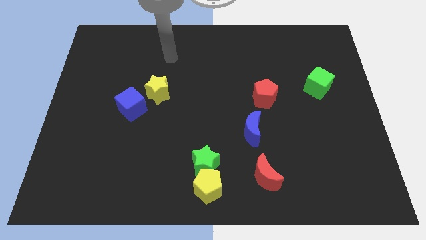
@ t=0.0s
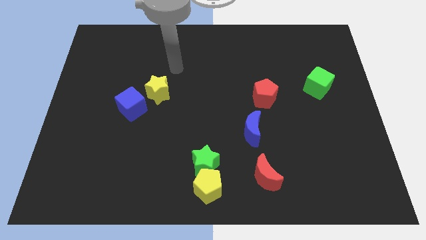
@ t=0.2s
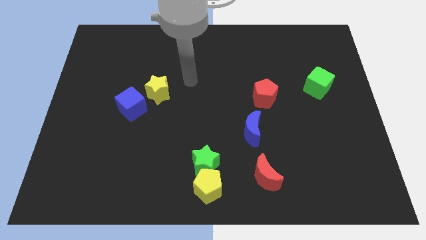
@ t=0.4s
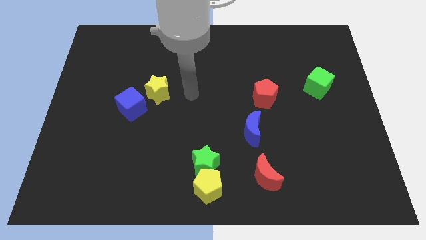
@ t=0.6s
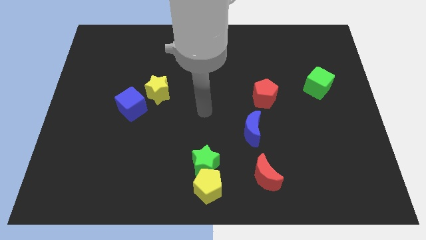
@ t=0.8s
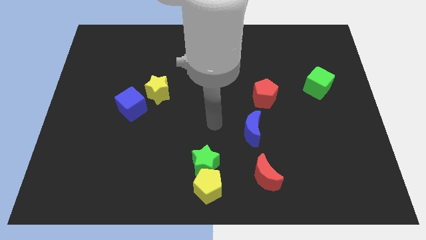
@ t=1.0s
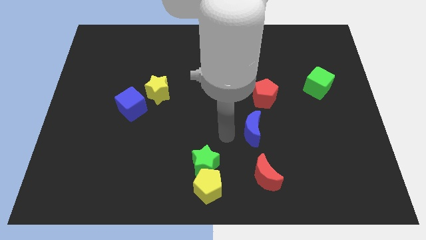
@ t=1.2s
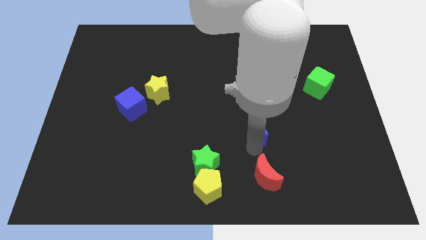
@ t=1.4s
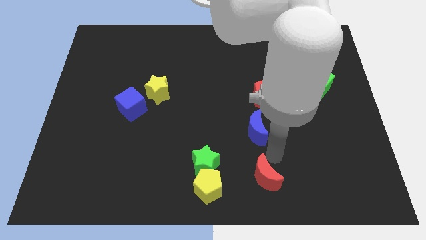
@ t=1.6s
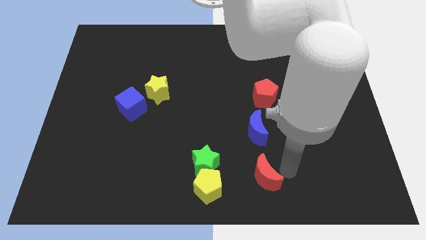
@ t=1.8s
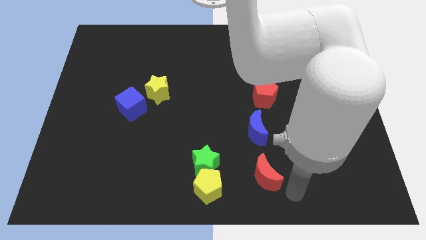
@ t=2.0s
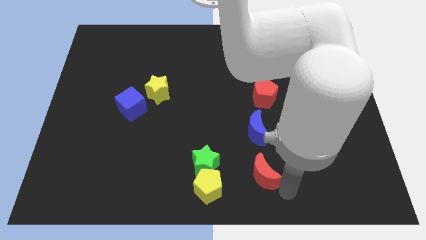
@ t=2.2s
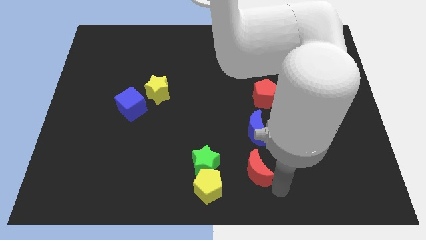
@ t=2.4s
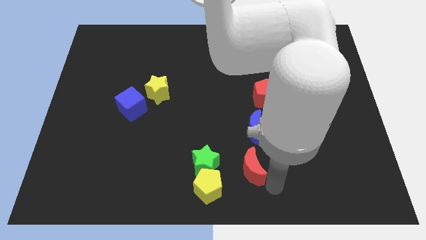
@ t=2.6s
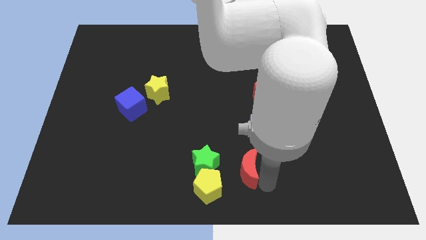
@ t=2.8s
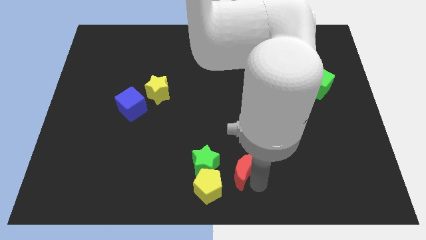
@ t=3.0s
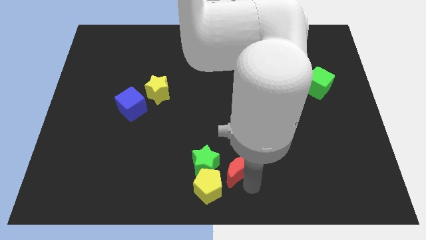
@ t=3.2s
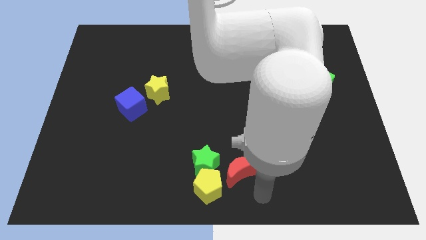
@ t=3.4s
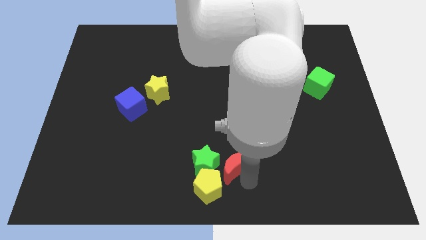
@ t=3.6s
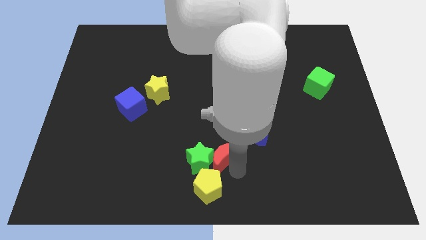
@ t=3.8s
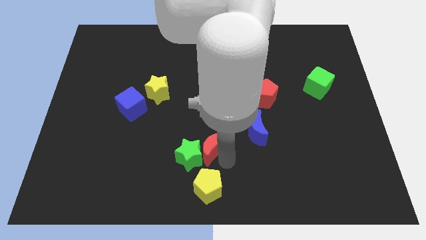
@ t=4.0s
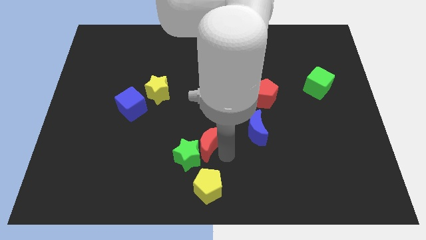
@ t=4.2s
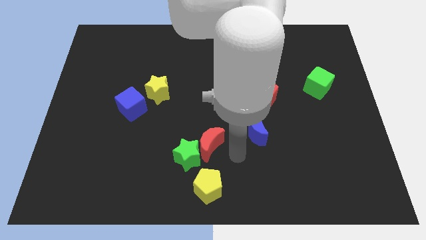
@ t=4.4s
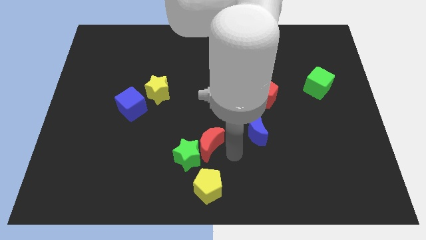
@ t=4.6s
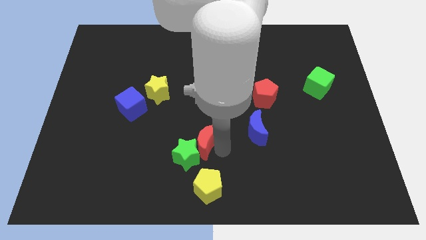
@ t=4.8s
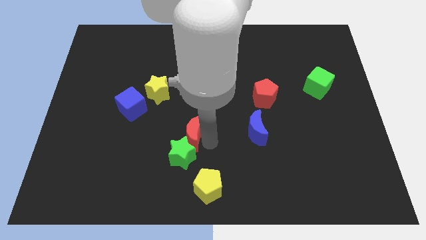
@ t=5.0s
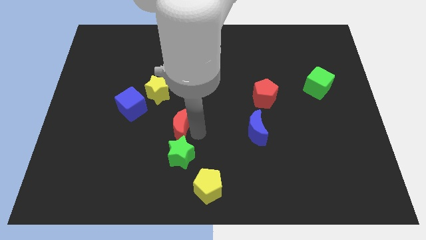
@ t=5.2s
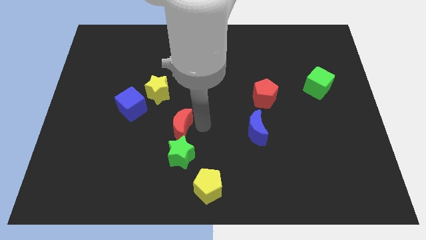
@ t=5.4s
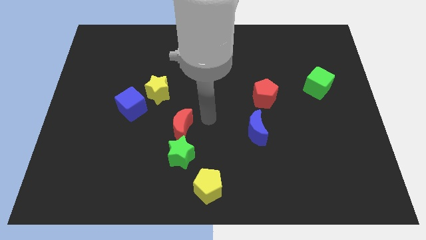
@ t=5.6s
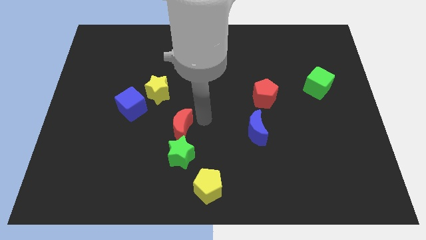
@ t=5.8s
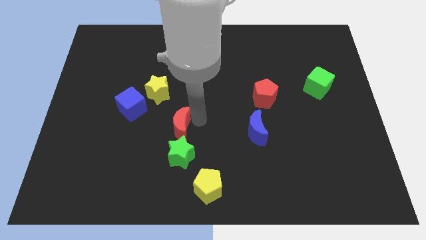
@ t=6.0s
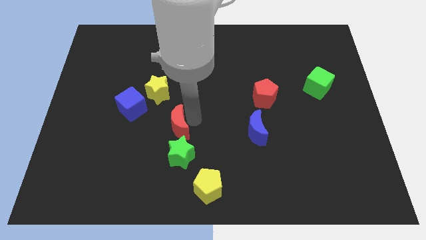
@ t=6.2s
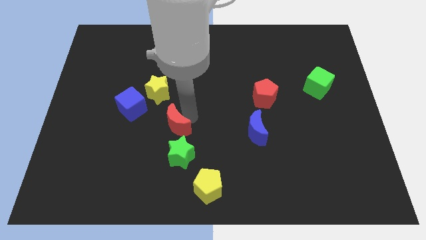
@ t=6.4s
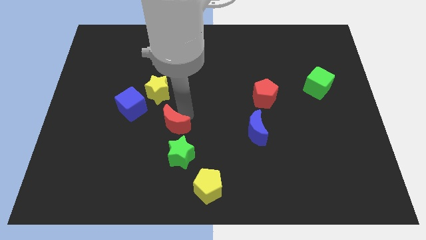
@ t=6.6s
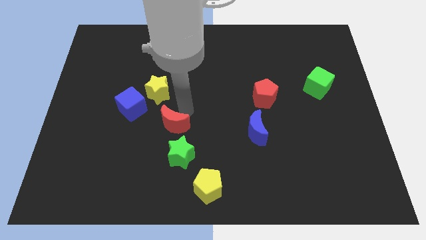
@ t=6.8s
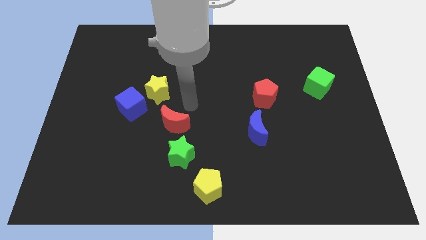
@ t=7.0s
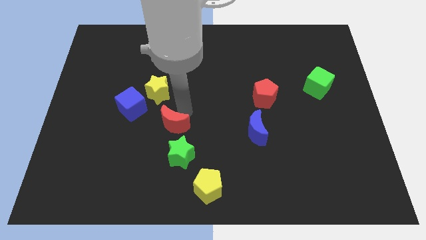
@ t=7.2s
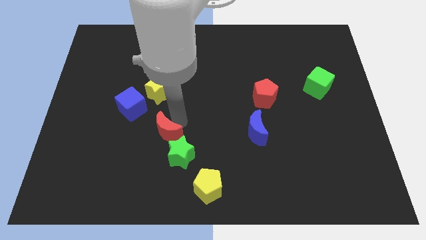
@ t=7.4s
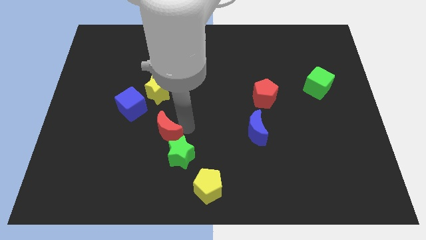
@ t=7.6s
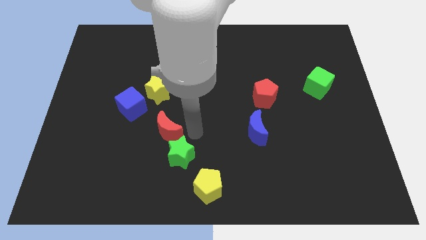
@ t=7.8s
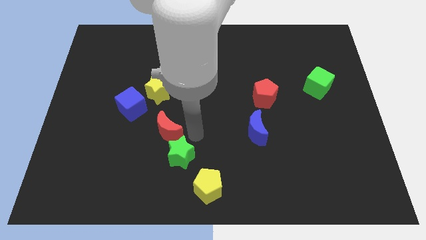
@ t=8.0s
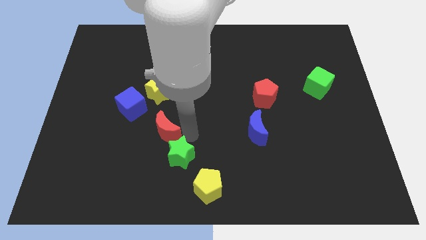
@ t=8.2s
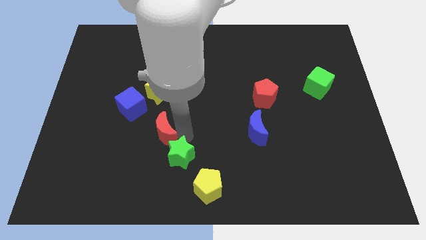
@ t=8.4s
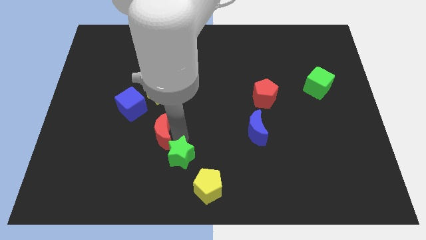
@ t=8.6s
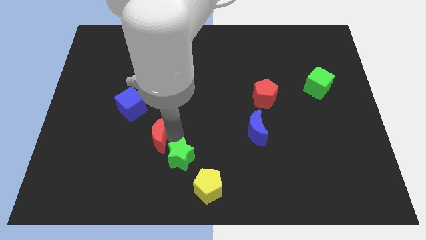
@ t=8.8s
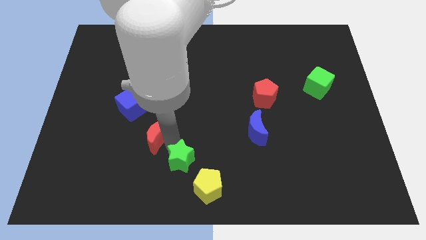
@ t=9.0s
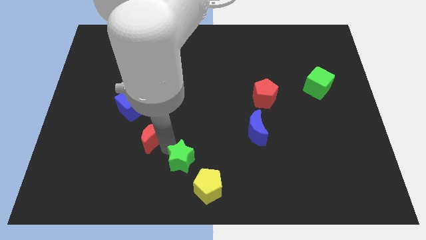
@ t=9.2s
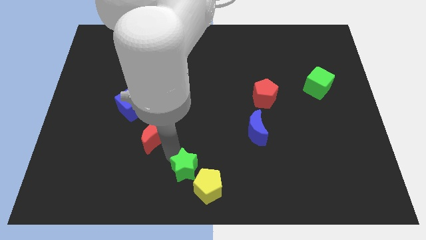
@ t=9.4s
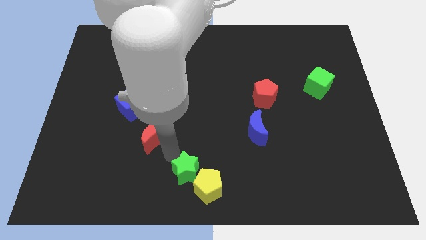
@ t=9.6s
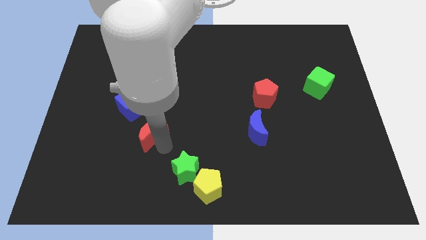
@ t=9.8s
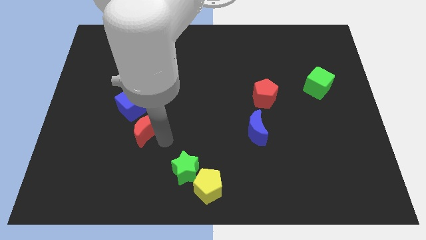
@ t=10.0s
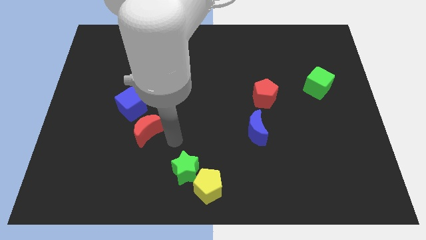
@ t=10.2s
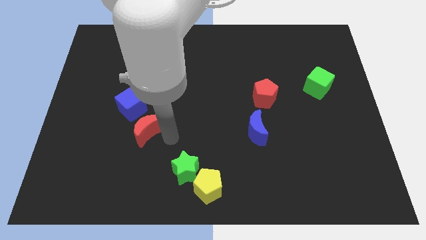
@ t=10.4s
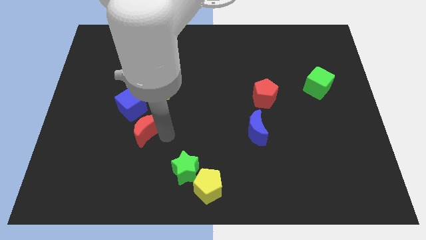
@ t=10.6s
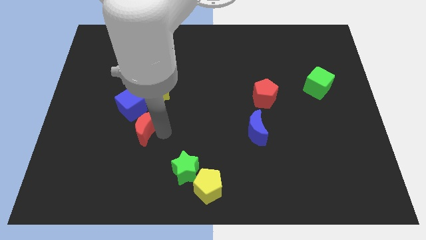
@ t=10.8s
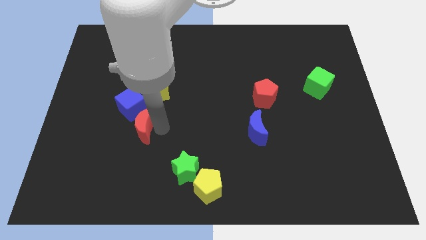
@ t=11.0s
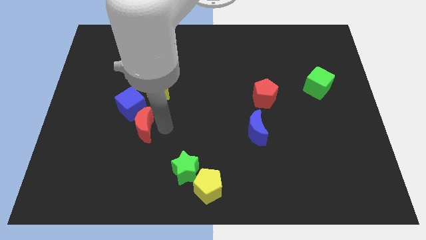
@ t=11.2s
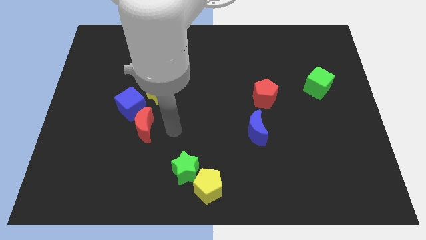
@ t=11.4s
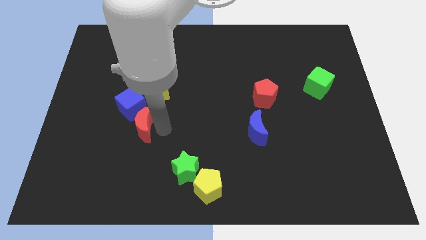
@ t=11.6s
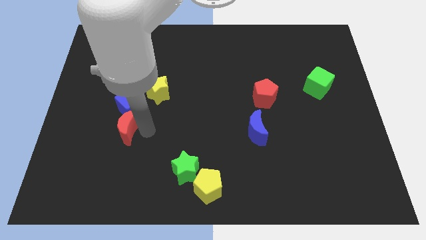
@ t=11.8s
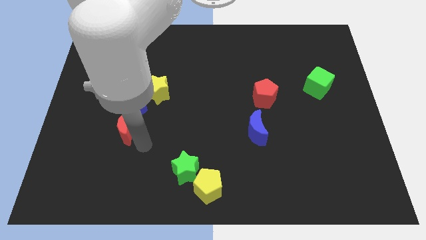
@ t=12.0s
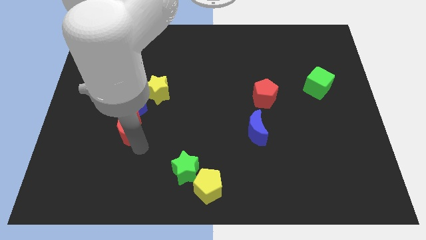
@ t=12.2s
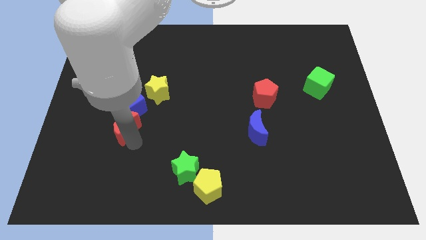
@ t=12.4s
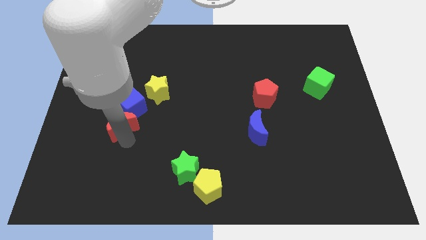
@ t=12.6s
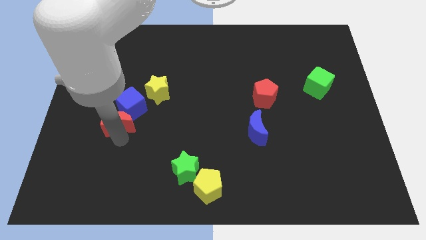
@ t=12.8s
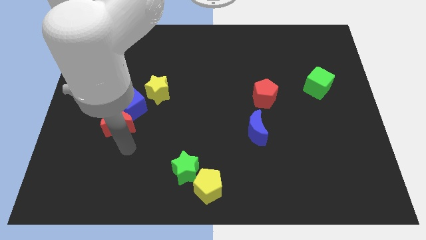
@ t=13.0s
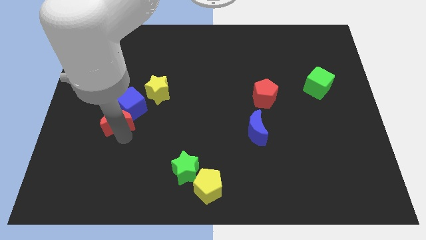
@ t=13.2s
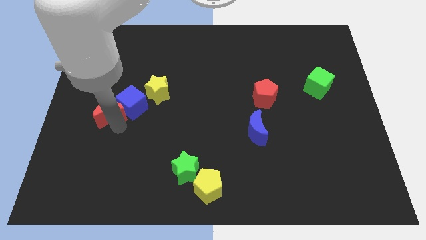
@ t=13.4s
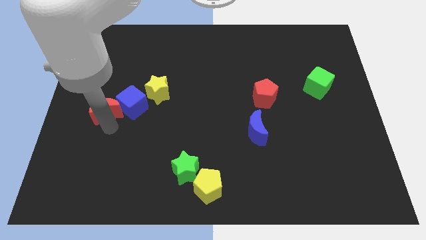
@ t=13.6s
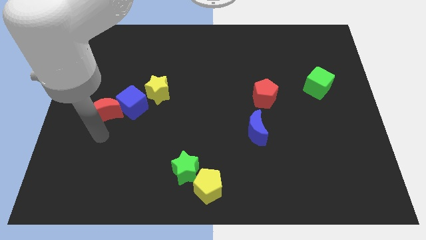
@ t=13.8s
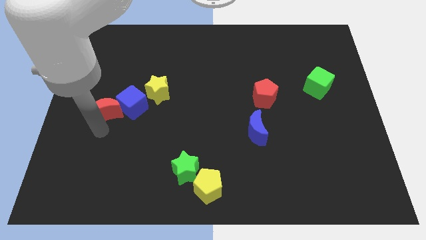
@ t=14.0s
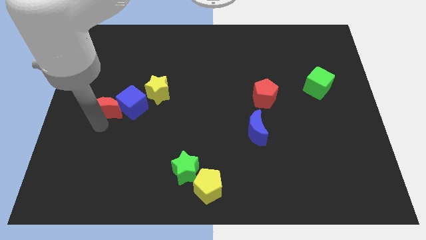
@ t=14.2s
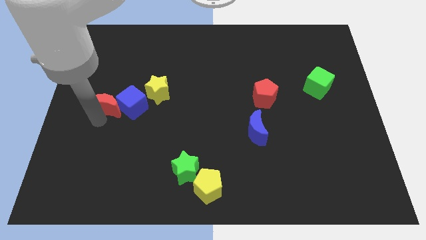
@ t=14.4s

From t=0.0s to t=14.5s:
slide the red moon diagonally up and to the left of the blue cube
